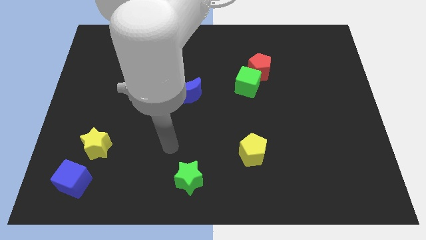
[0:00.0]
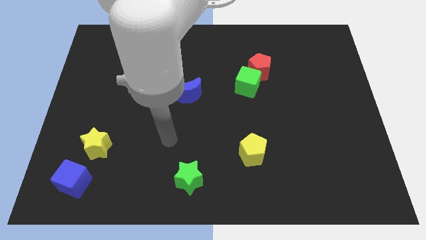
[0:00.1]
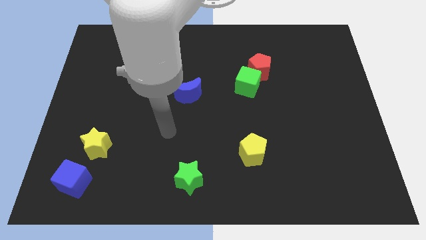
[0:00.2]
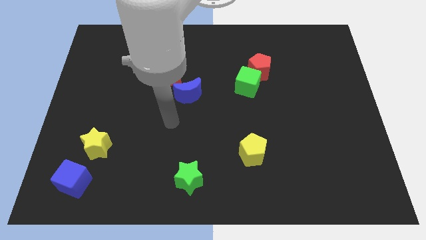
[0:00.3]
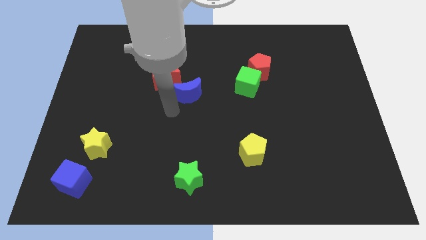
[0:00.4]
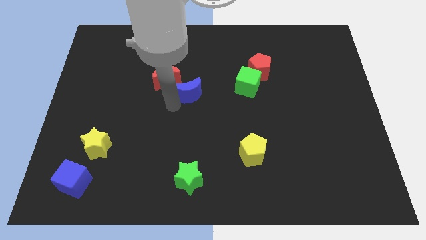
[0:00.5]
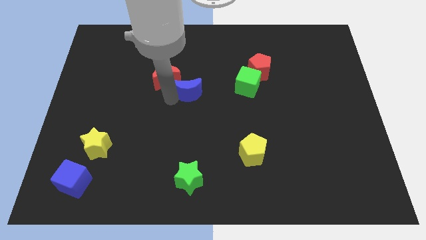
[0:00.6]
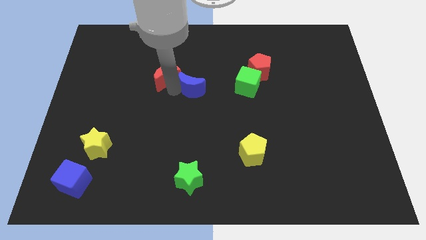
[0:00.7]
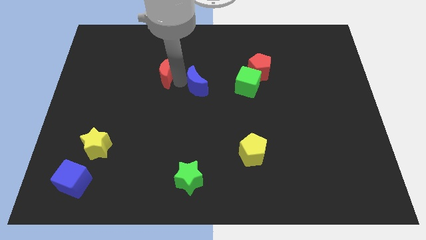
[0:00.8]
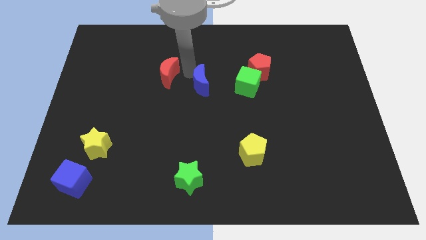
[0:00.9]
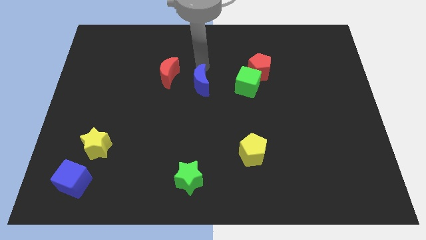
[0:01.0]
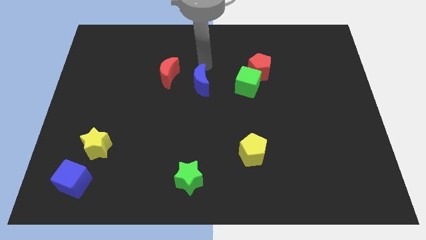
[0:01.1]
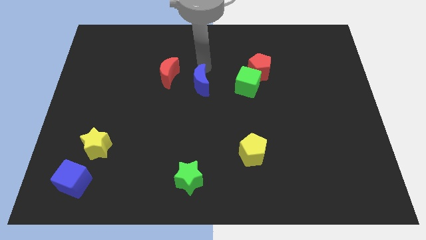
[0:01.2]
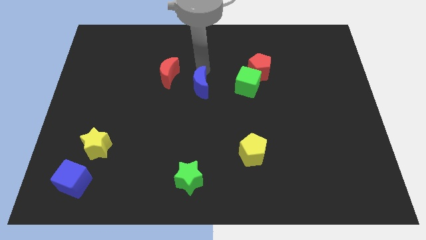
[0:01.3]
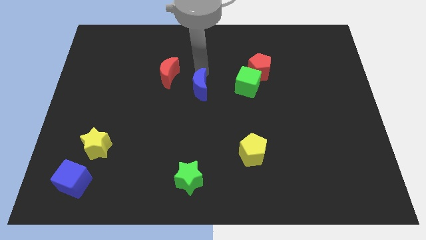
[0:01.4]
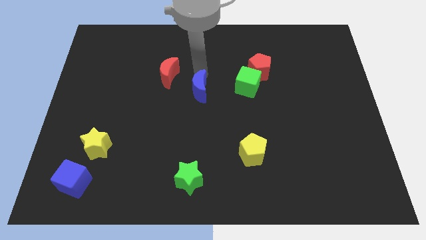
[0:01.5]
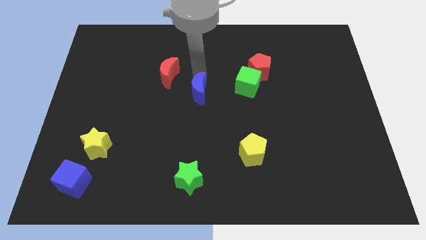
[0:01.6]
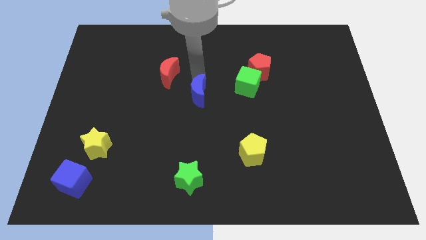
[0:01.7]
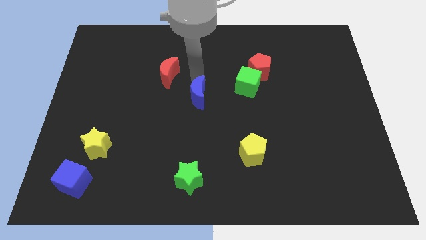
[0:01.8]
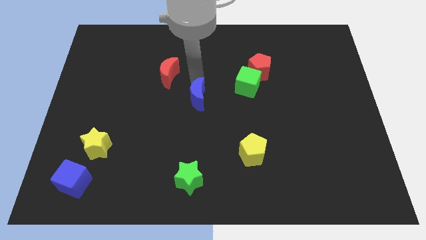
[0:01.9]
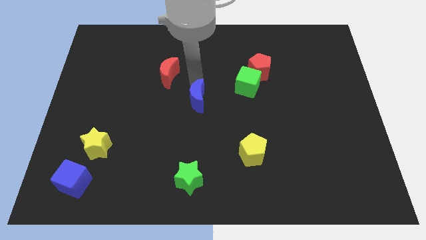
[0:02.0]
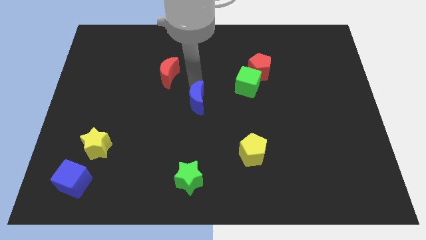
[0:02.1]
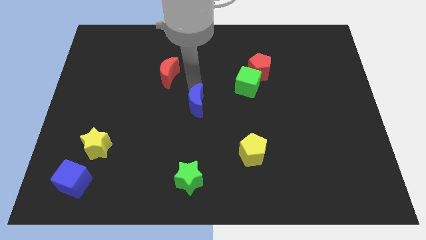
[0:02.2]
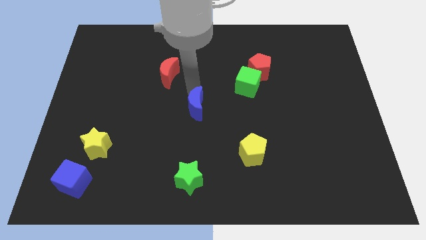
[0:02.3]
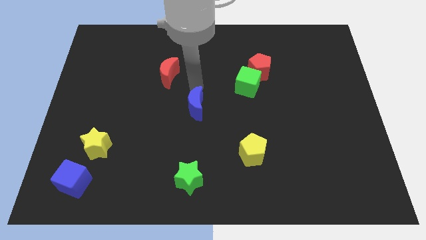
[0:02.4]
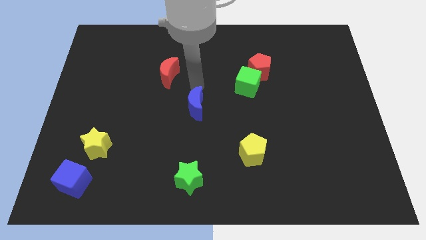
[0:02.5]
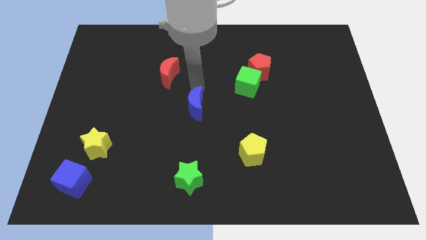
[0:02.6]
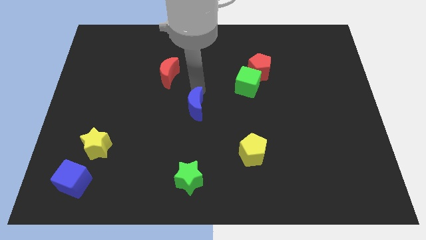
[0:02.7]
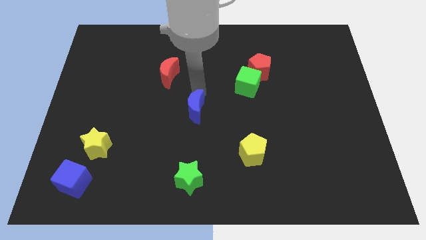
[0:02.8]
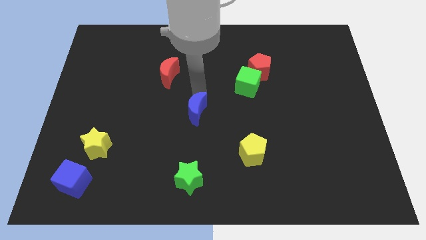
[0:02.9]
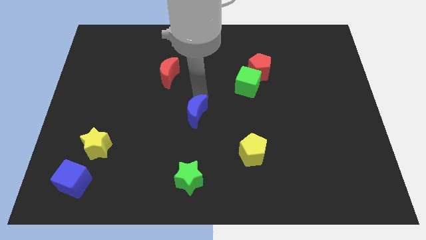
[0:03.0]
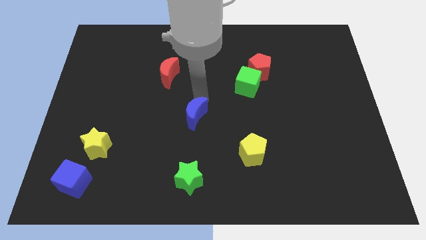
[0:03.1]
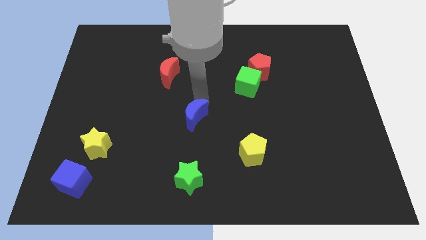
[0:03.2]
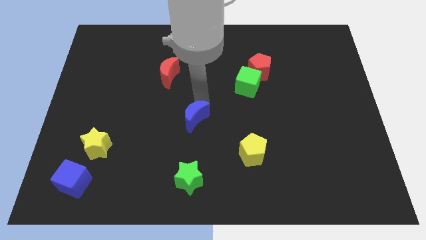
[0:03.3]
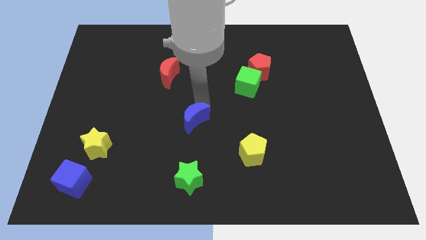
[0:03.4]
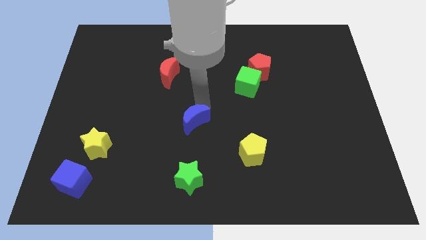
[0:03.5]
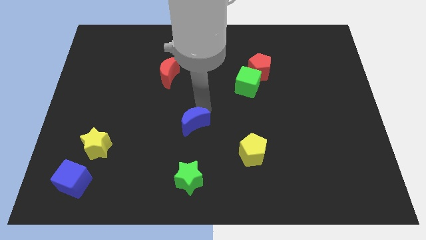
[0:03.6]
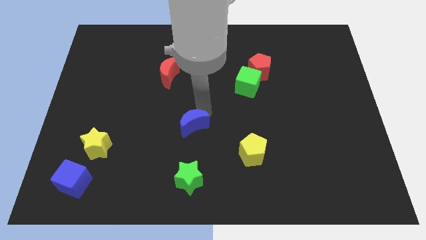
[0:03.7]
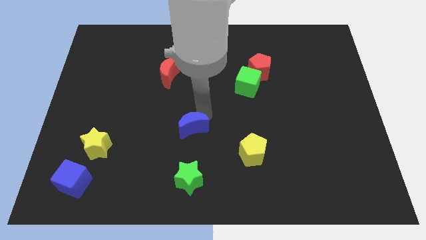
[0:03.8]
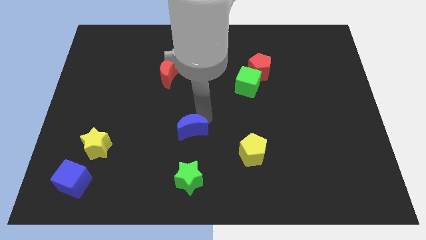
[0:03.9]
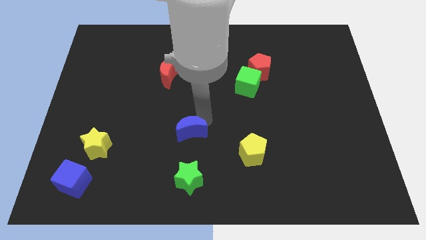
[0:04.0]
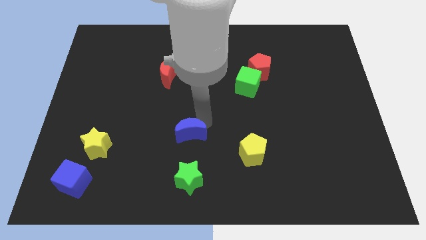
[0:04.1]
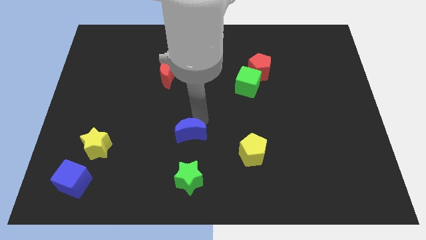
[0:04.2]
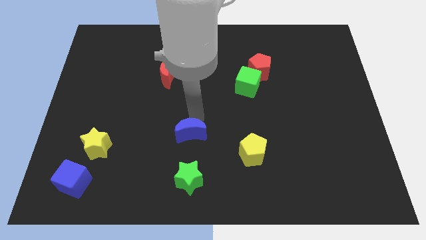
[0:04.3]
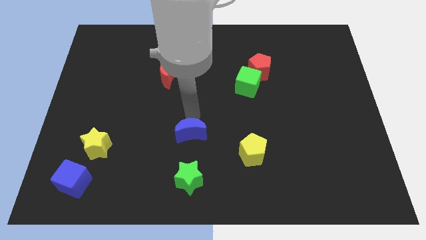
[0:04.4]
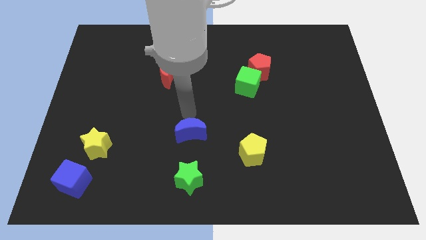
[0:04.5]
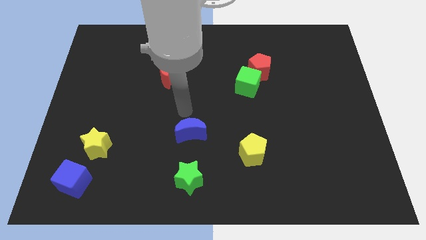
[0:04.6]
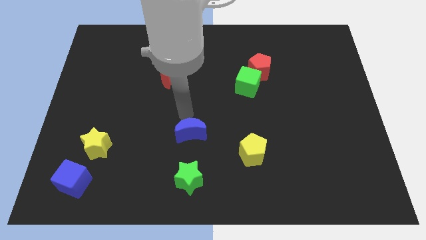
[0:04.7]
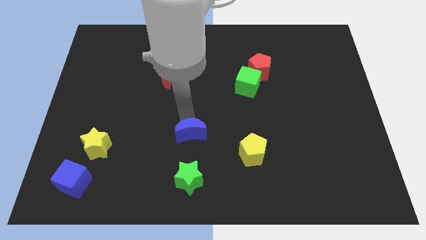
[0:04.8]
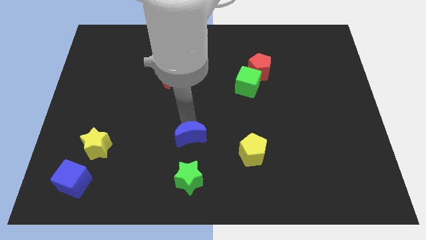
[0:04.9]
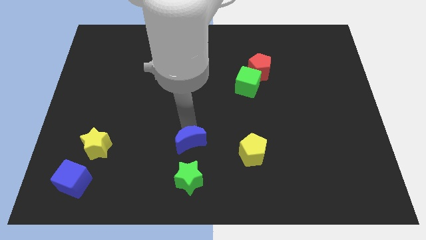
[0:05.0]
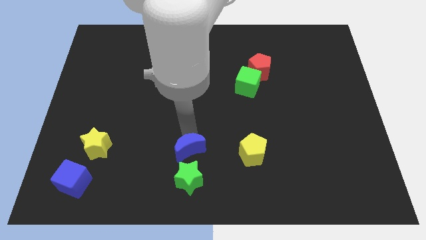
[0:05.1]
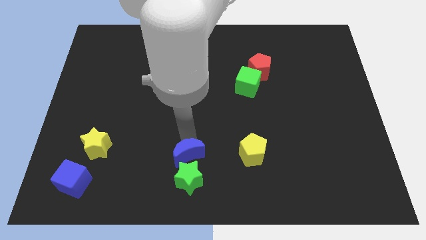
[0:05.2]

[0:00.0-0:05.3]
move the blue moon to the green star

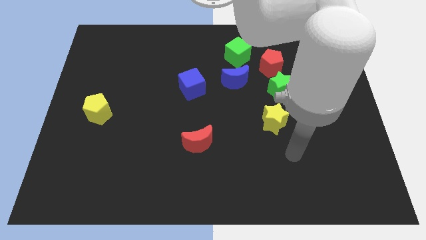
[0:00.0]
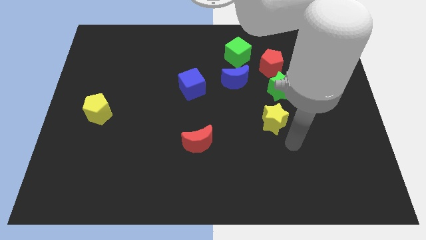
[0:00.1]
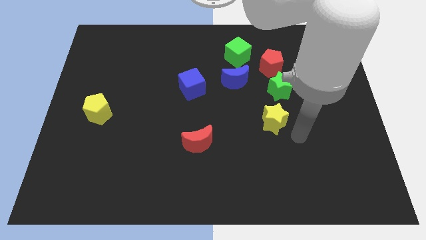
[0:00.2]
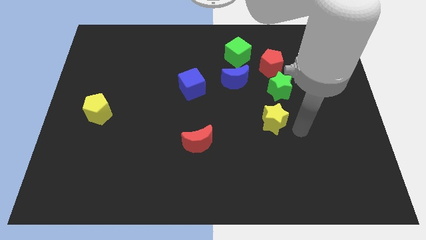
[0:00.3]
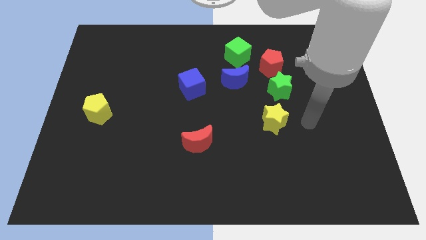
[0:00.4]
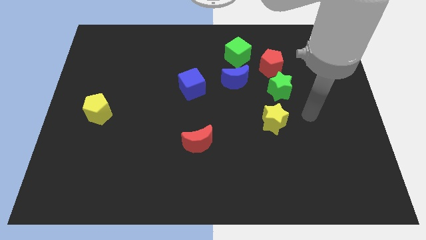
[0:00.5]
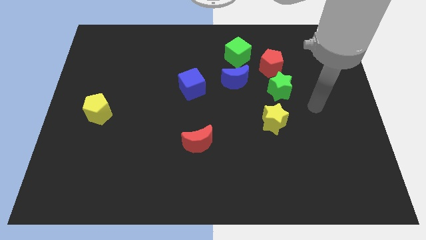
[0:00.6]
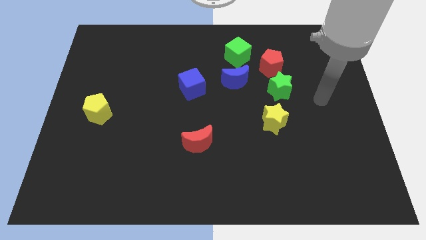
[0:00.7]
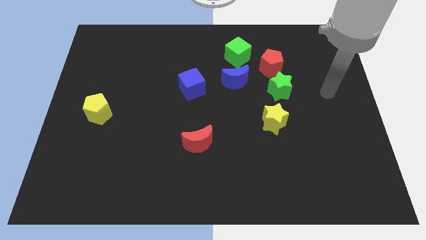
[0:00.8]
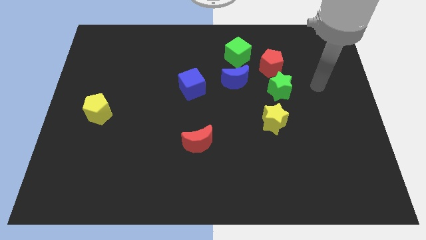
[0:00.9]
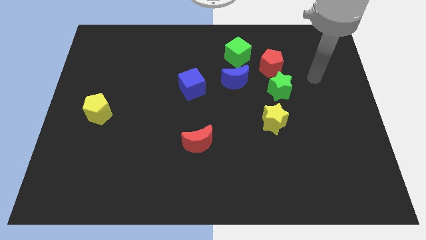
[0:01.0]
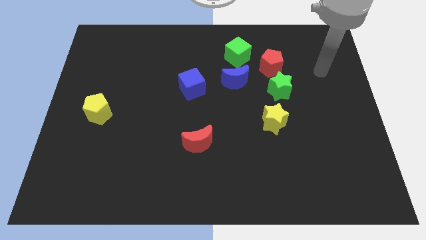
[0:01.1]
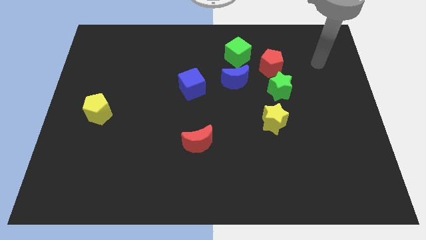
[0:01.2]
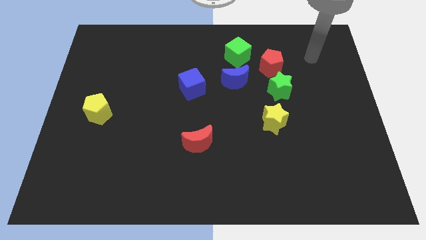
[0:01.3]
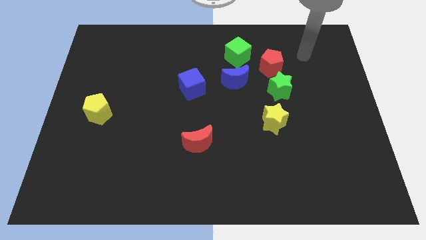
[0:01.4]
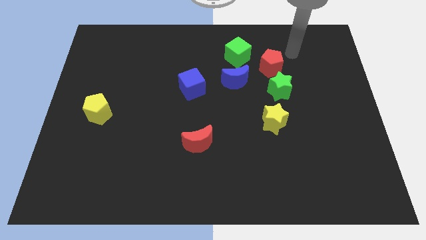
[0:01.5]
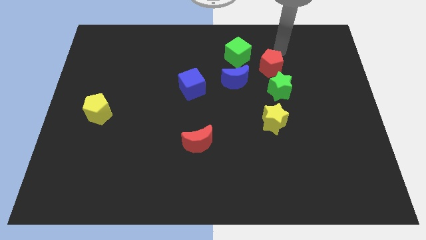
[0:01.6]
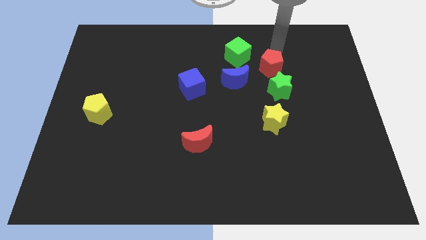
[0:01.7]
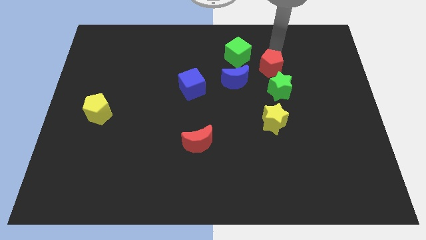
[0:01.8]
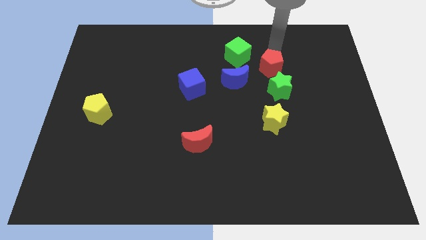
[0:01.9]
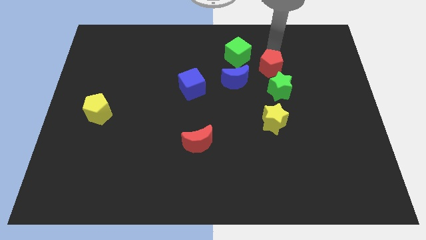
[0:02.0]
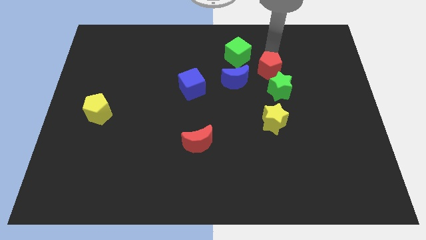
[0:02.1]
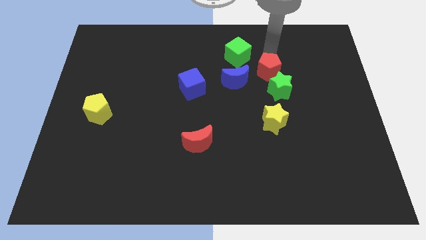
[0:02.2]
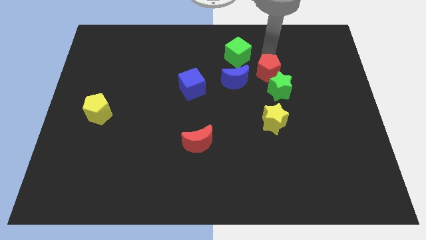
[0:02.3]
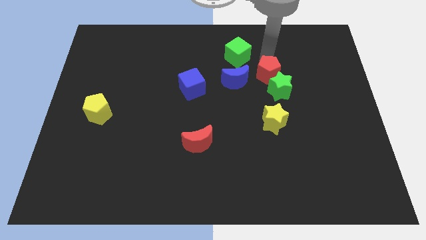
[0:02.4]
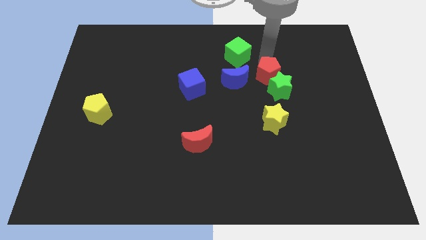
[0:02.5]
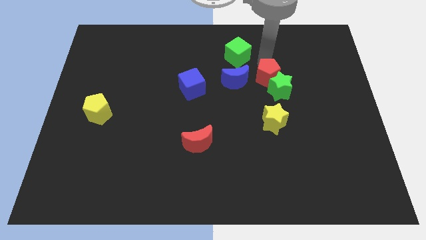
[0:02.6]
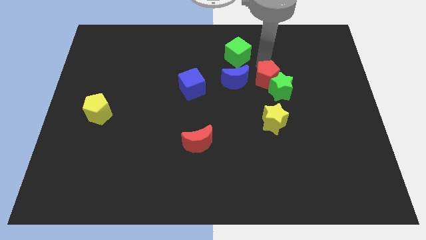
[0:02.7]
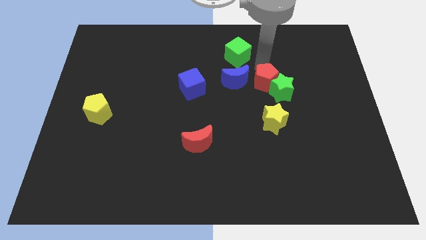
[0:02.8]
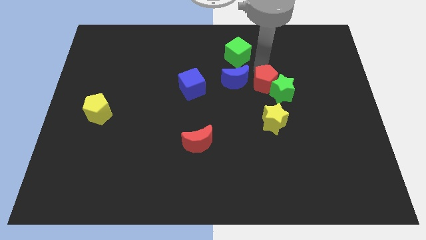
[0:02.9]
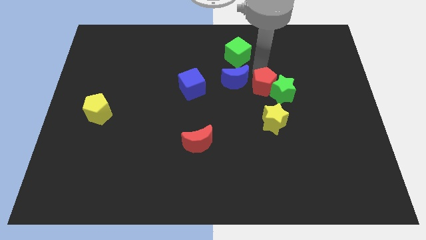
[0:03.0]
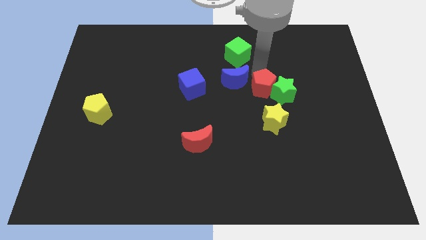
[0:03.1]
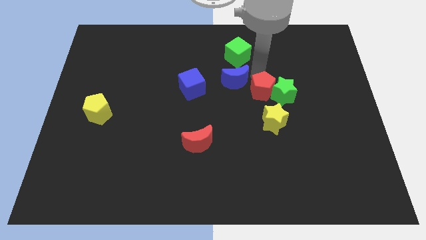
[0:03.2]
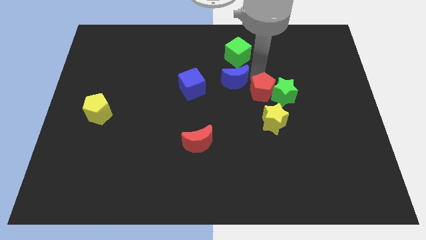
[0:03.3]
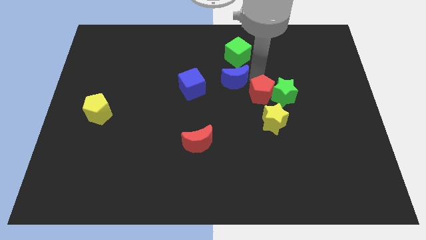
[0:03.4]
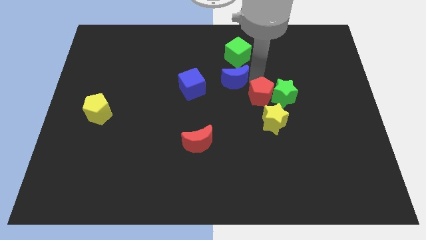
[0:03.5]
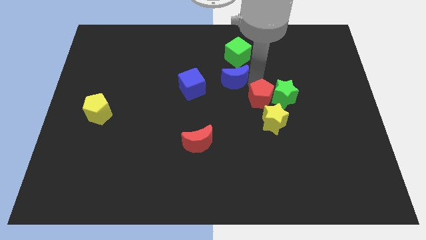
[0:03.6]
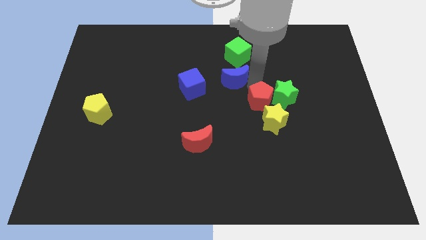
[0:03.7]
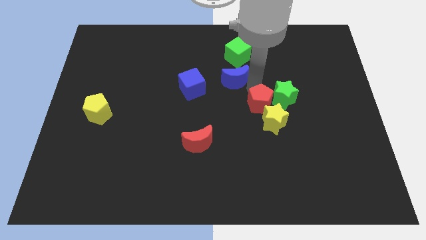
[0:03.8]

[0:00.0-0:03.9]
slide the red pentagon to the yellow star
